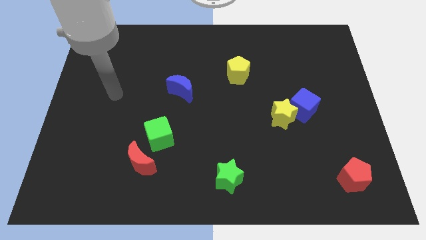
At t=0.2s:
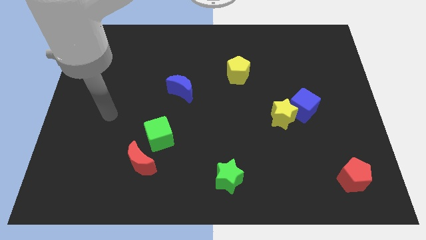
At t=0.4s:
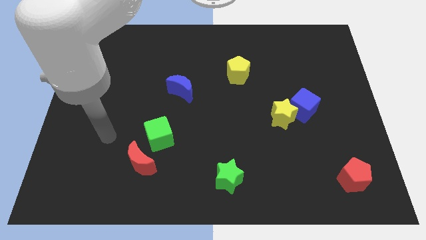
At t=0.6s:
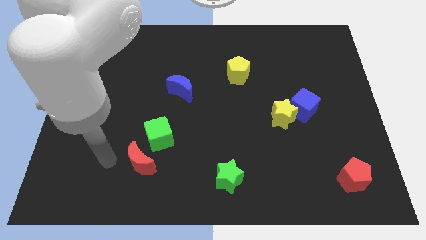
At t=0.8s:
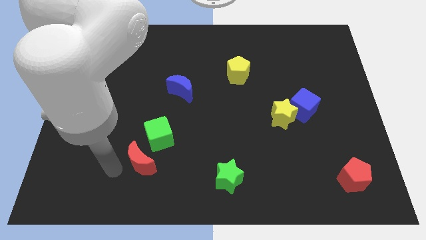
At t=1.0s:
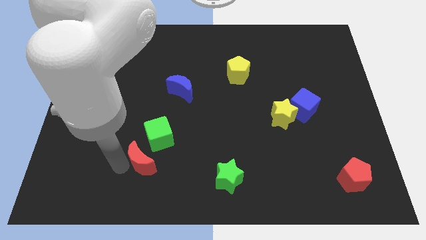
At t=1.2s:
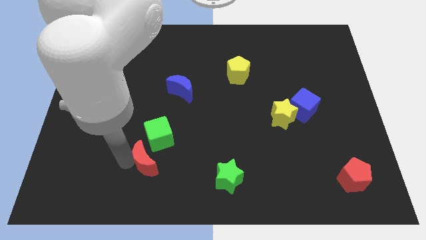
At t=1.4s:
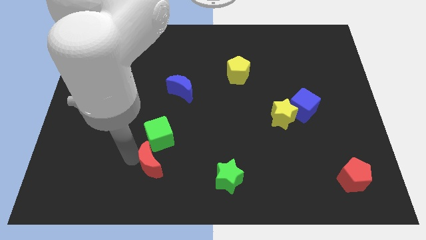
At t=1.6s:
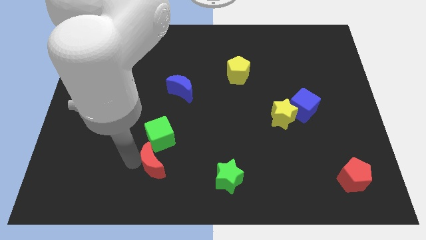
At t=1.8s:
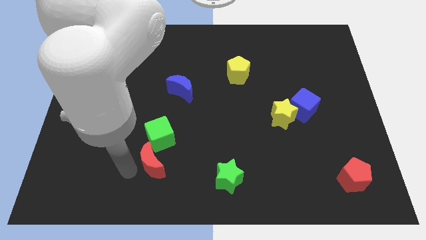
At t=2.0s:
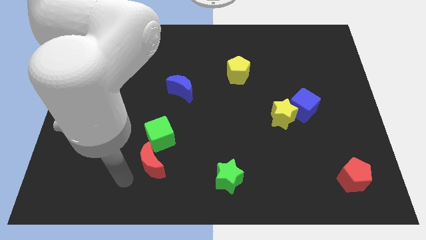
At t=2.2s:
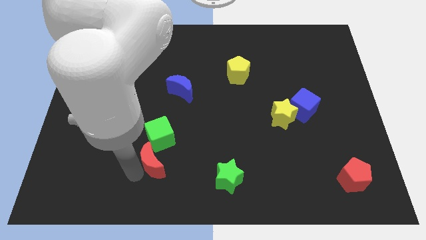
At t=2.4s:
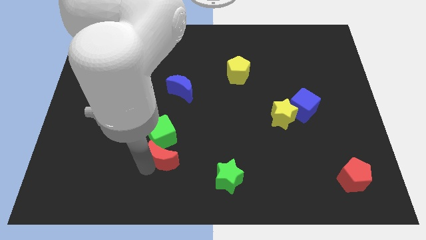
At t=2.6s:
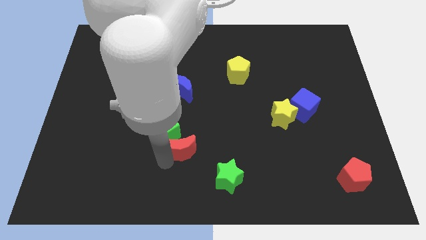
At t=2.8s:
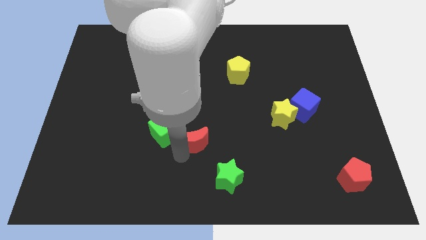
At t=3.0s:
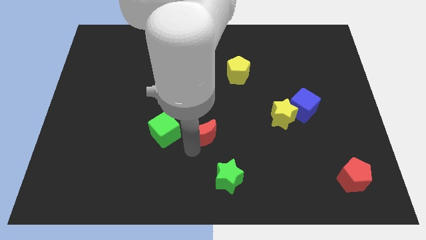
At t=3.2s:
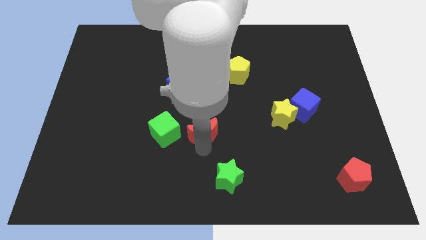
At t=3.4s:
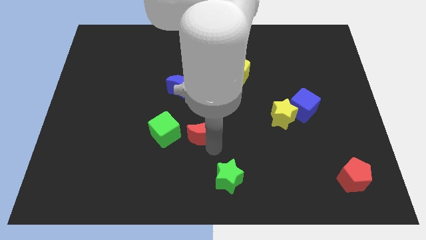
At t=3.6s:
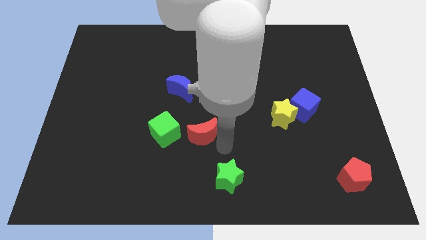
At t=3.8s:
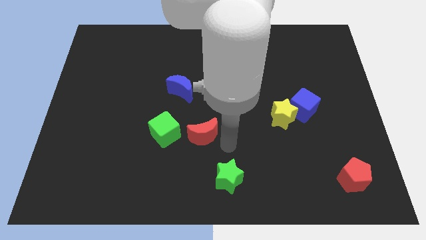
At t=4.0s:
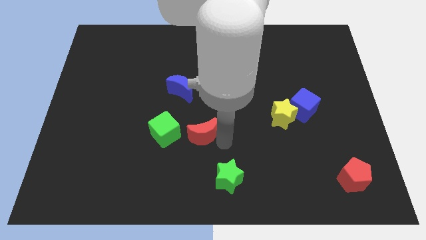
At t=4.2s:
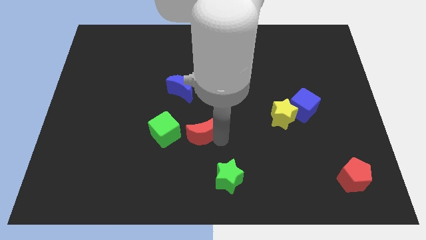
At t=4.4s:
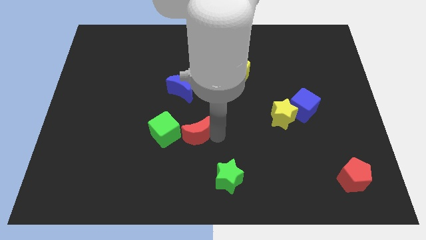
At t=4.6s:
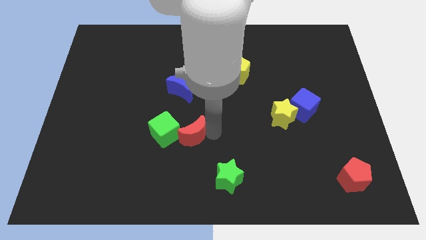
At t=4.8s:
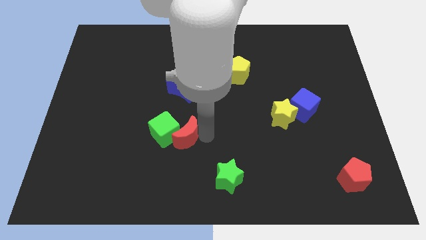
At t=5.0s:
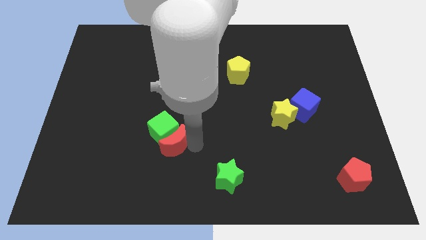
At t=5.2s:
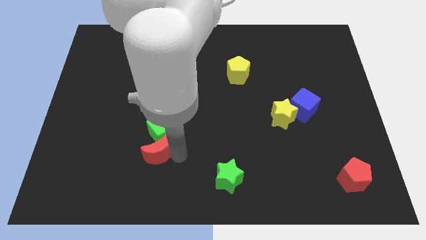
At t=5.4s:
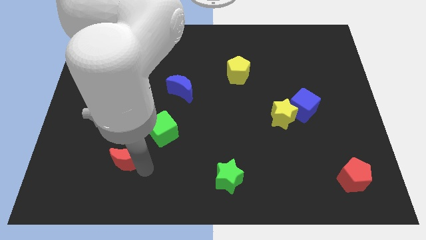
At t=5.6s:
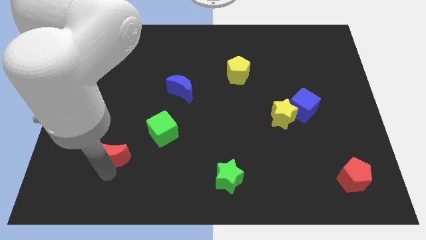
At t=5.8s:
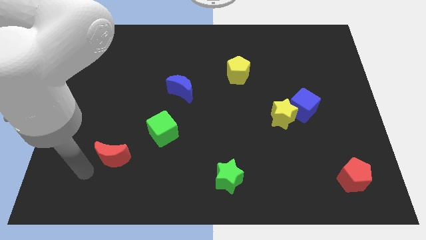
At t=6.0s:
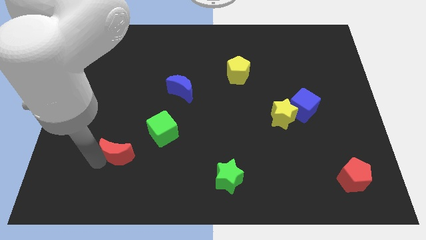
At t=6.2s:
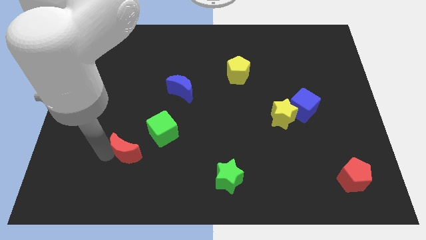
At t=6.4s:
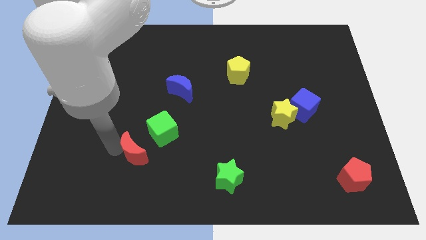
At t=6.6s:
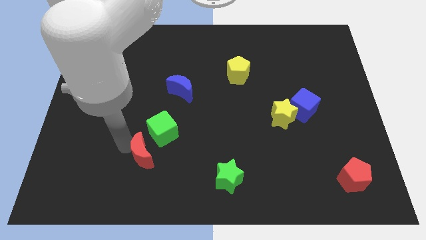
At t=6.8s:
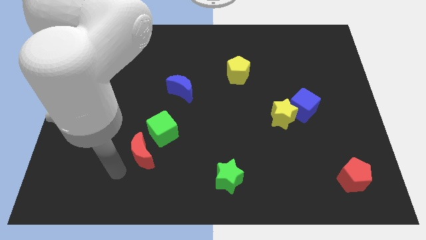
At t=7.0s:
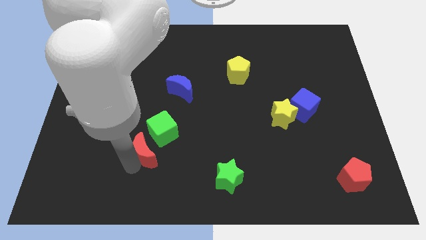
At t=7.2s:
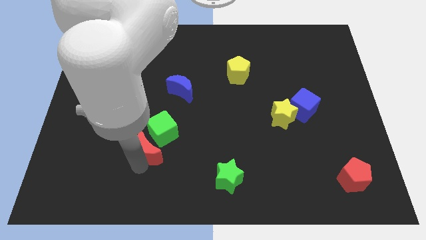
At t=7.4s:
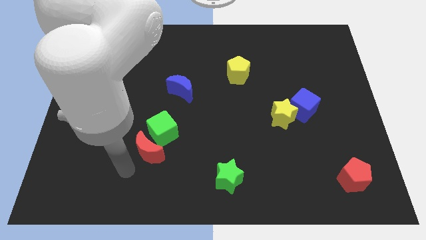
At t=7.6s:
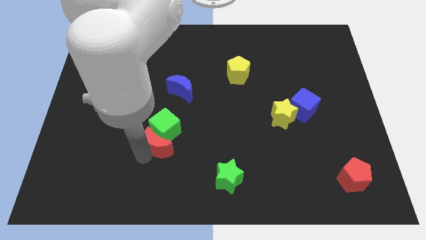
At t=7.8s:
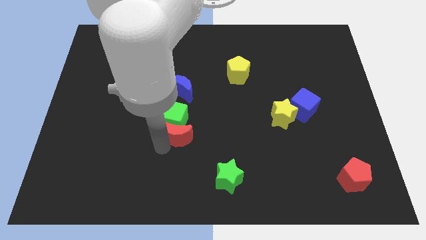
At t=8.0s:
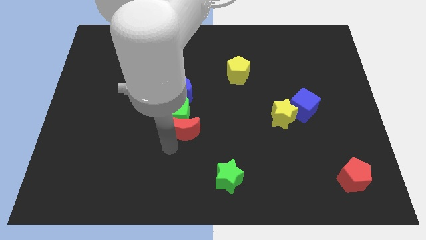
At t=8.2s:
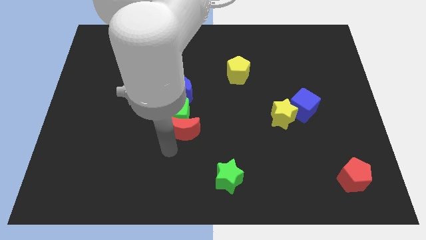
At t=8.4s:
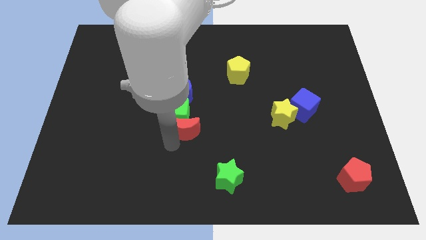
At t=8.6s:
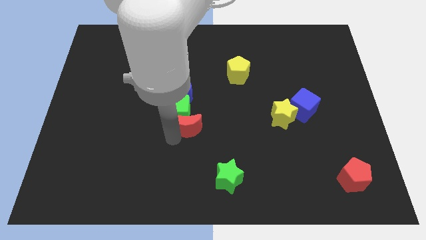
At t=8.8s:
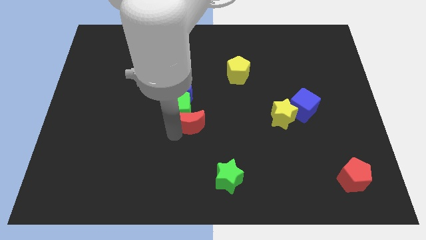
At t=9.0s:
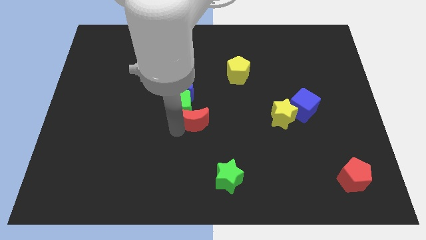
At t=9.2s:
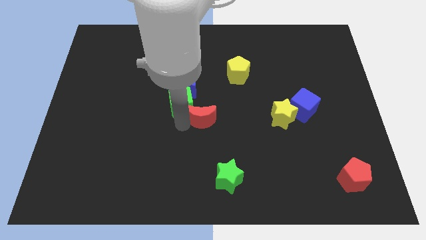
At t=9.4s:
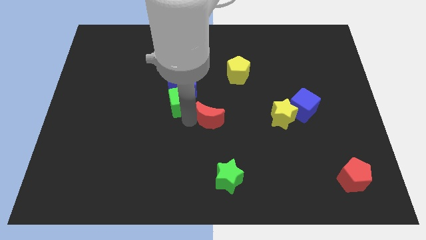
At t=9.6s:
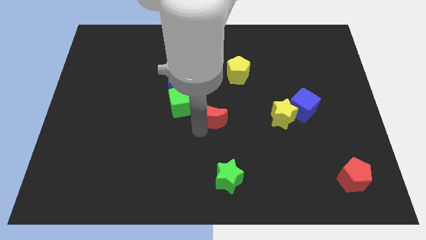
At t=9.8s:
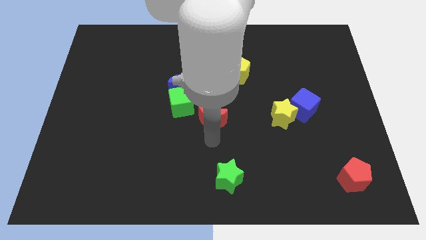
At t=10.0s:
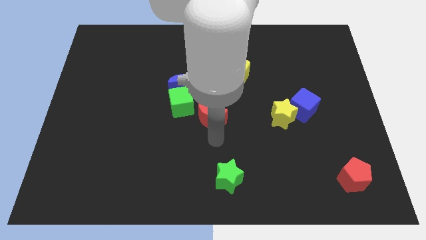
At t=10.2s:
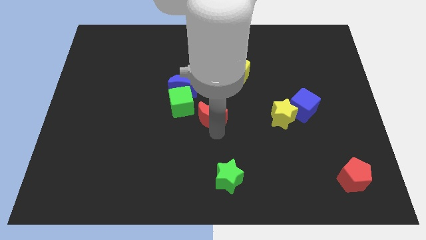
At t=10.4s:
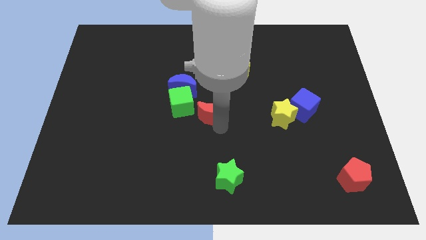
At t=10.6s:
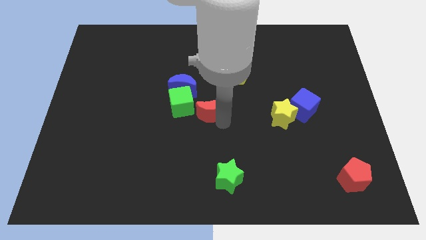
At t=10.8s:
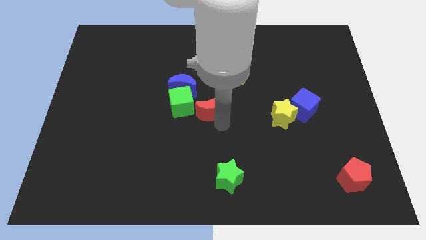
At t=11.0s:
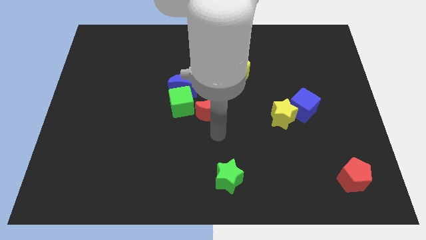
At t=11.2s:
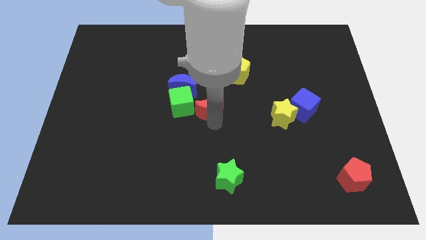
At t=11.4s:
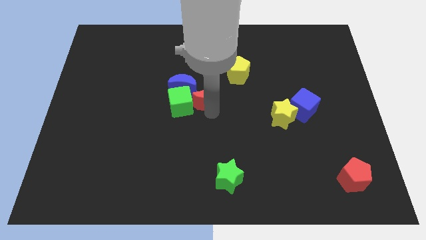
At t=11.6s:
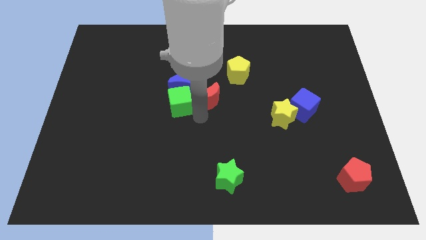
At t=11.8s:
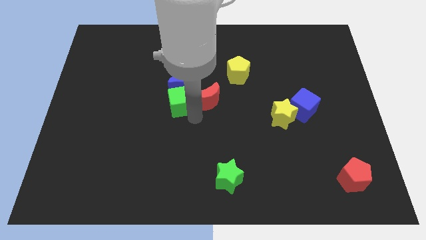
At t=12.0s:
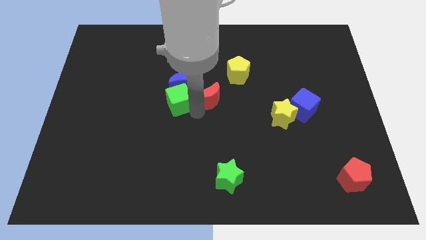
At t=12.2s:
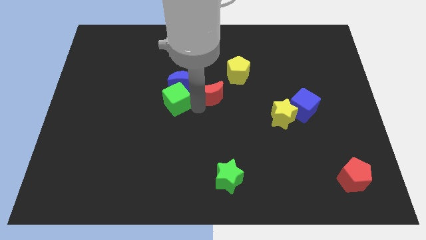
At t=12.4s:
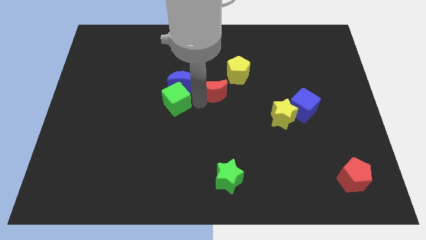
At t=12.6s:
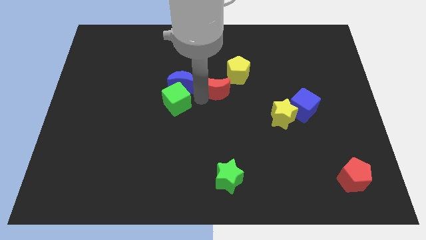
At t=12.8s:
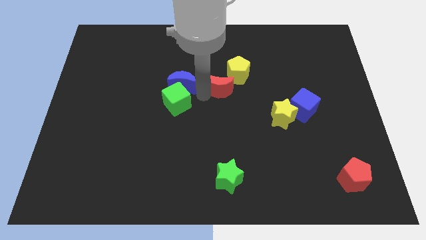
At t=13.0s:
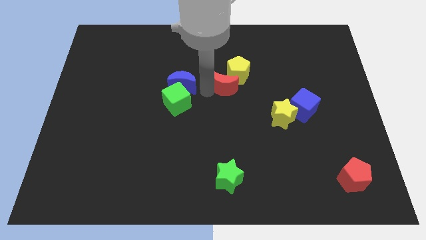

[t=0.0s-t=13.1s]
push the red moon close to the yellow pentagon

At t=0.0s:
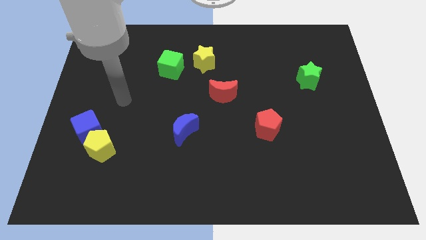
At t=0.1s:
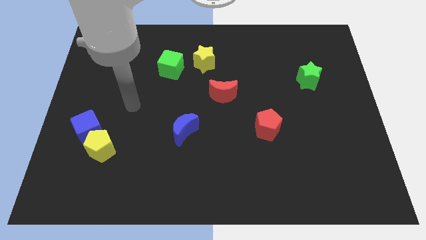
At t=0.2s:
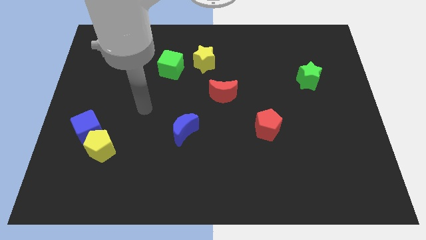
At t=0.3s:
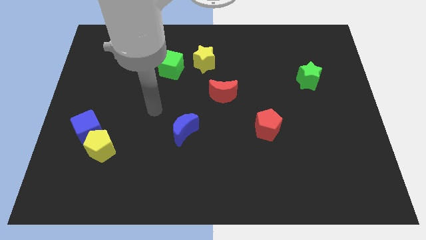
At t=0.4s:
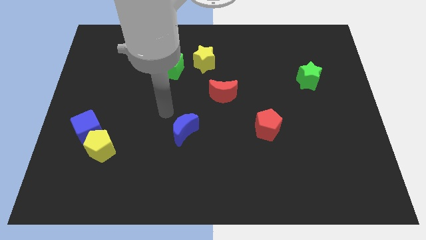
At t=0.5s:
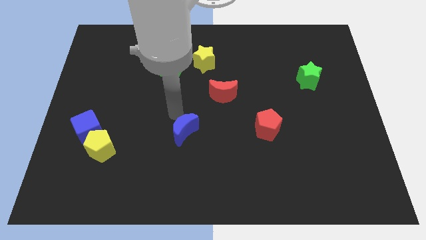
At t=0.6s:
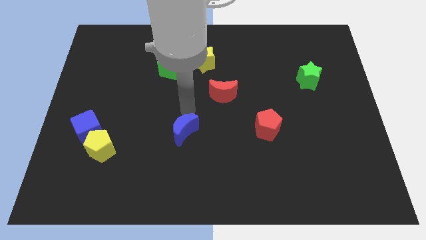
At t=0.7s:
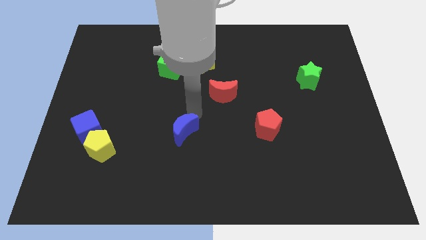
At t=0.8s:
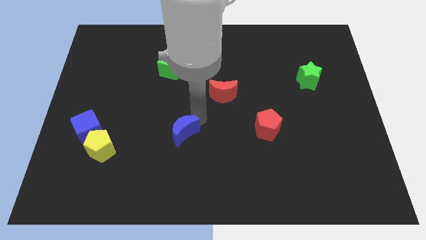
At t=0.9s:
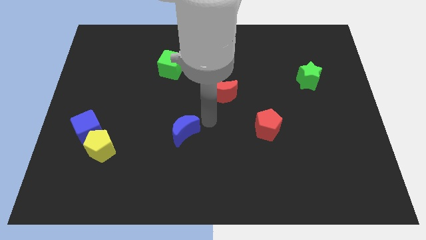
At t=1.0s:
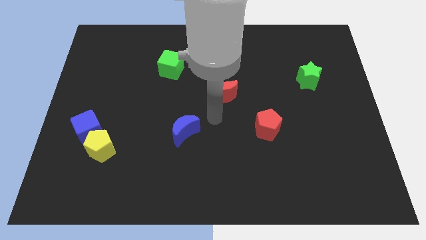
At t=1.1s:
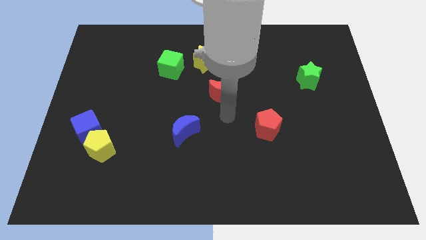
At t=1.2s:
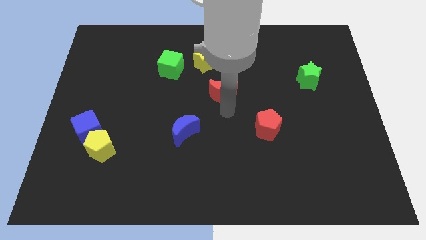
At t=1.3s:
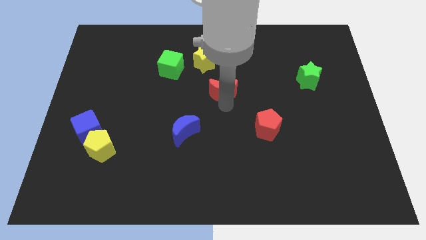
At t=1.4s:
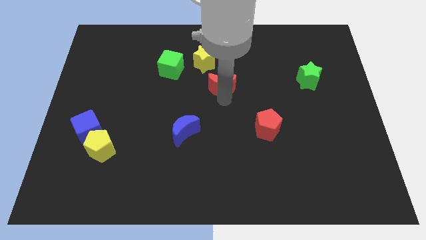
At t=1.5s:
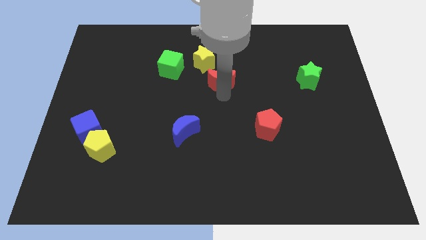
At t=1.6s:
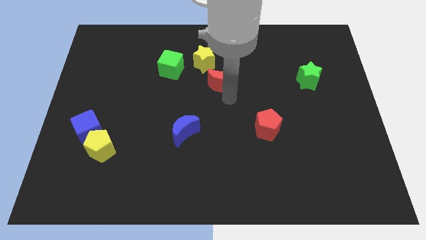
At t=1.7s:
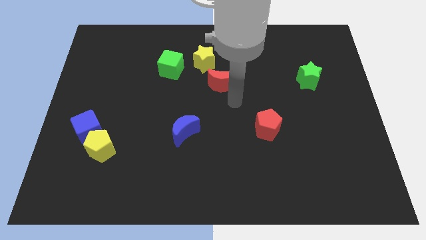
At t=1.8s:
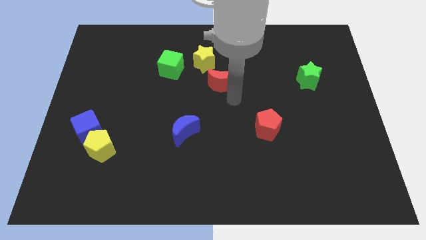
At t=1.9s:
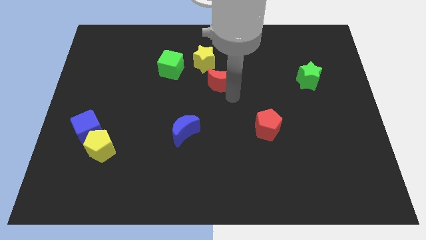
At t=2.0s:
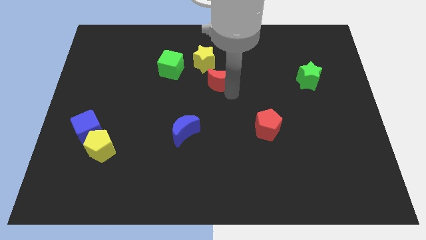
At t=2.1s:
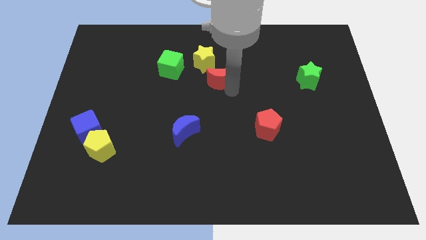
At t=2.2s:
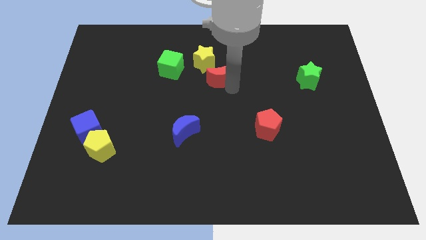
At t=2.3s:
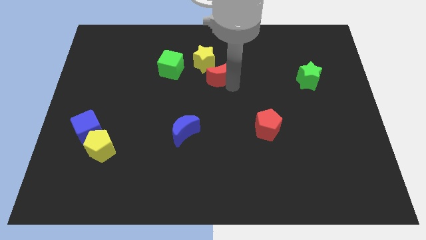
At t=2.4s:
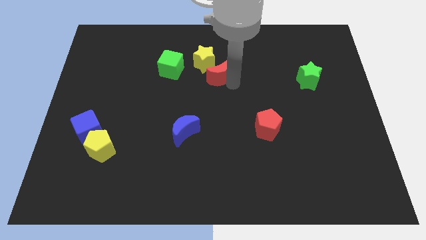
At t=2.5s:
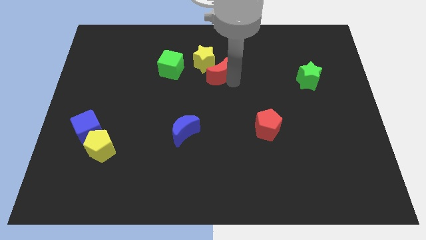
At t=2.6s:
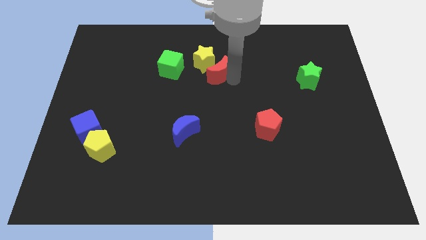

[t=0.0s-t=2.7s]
push the red moon to the yellow star
